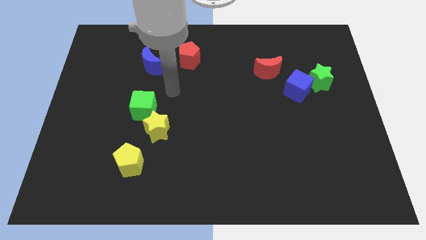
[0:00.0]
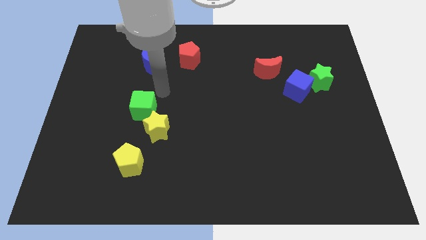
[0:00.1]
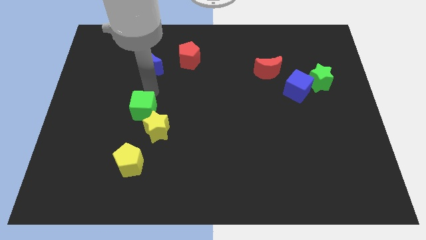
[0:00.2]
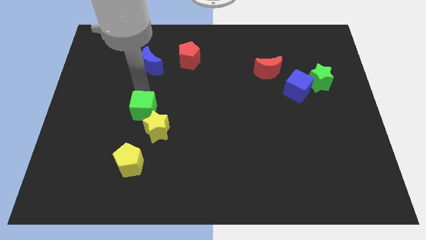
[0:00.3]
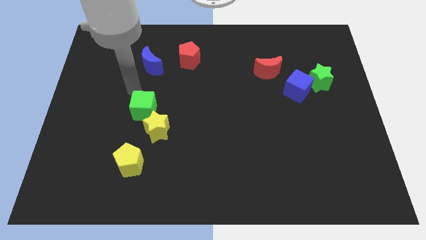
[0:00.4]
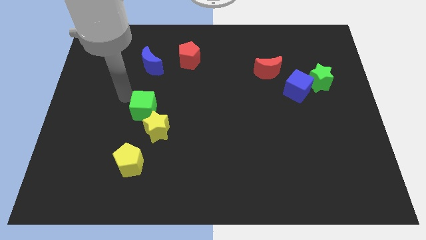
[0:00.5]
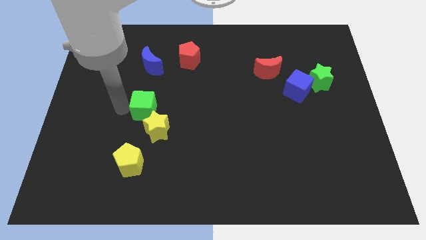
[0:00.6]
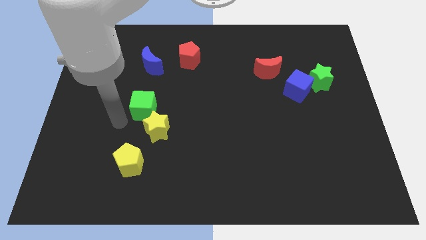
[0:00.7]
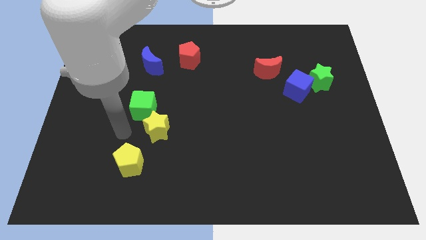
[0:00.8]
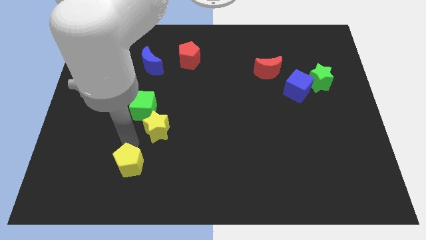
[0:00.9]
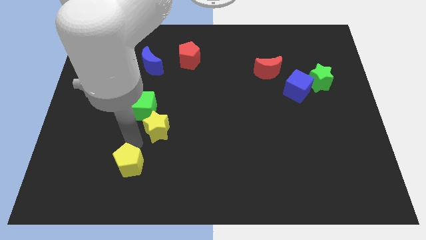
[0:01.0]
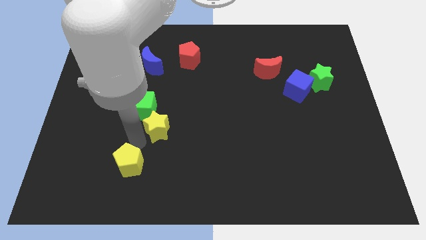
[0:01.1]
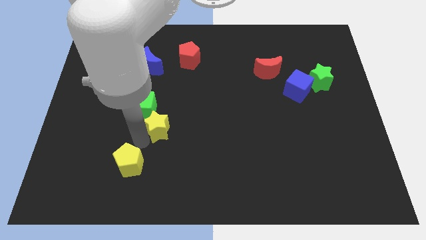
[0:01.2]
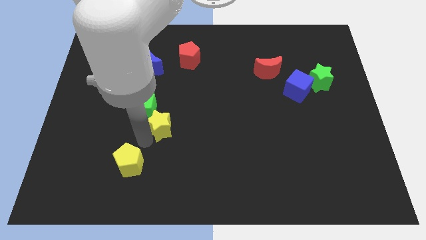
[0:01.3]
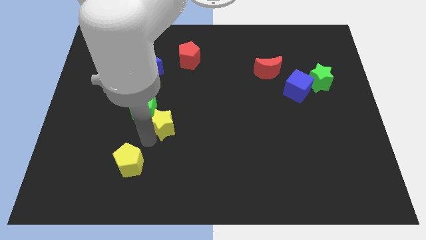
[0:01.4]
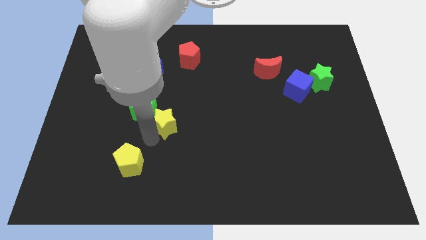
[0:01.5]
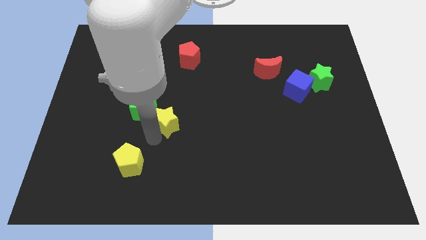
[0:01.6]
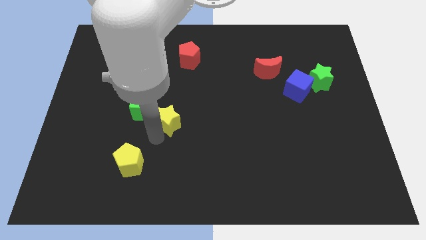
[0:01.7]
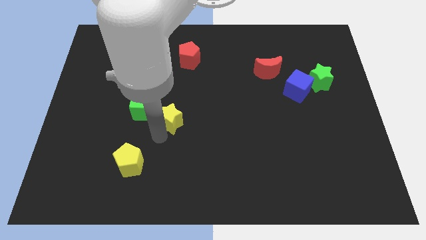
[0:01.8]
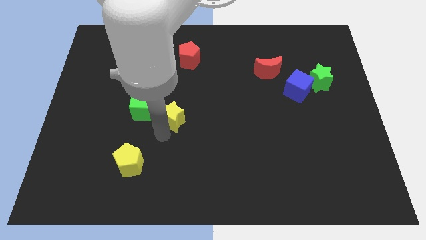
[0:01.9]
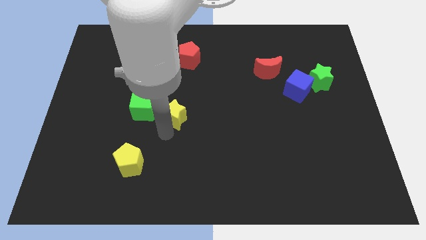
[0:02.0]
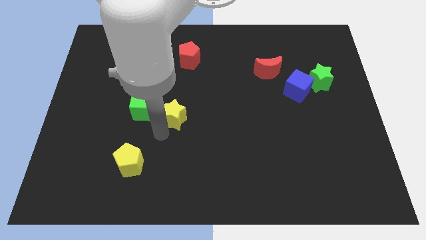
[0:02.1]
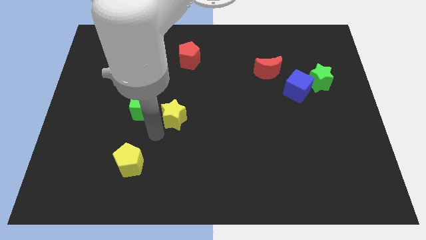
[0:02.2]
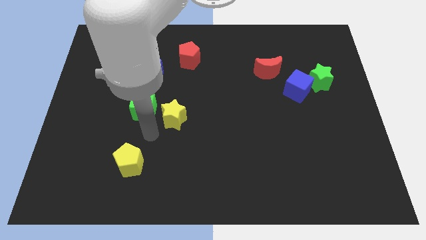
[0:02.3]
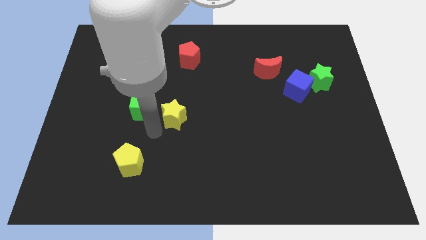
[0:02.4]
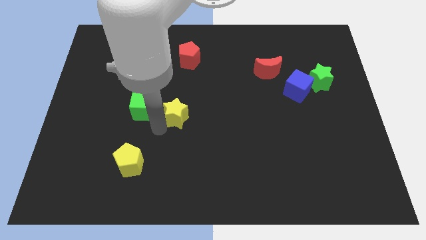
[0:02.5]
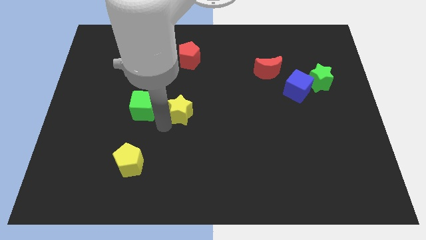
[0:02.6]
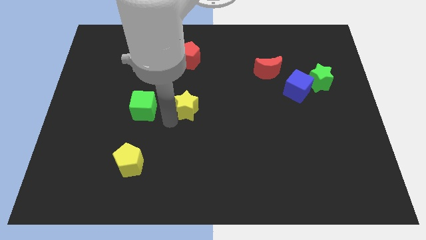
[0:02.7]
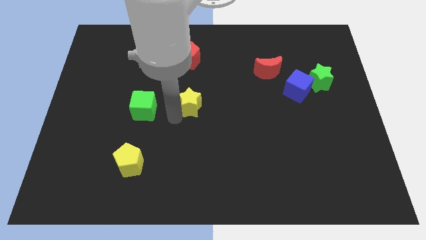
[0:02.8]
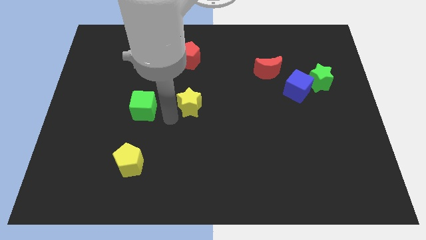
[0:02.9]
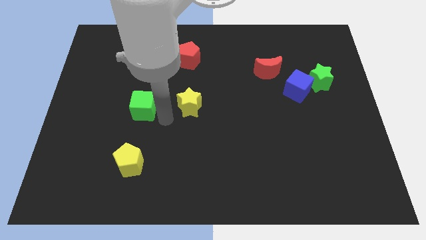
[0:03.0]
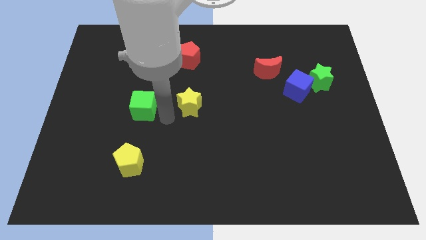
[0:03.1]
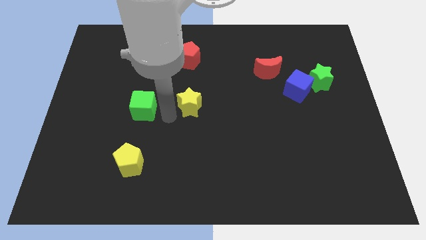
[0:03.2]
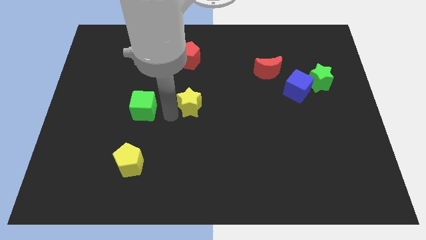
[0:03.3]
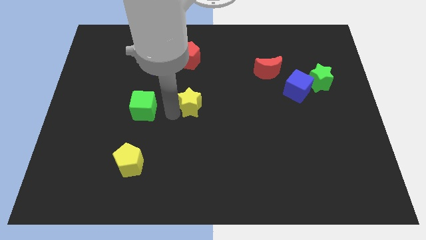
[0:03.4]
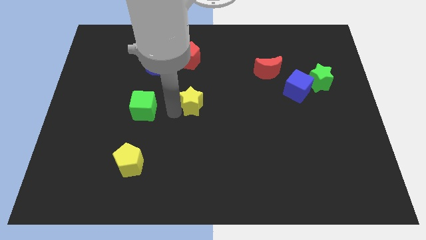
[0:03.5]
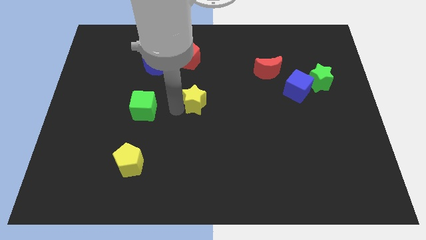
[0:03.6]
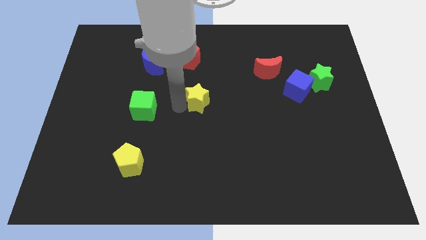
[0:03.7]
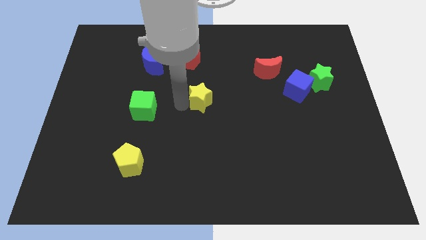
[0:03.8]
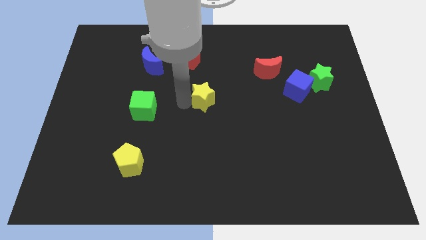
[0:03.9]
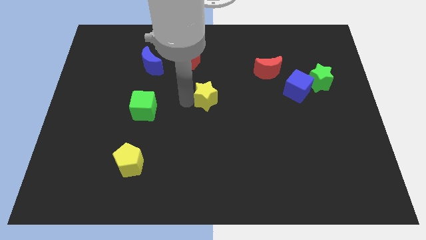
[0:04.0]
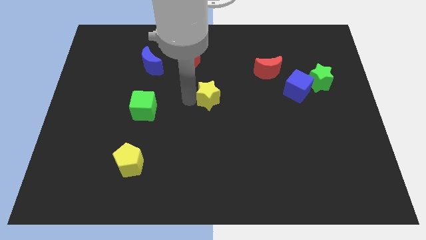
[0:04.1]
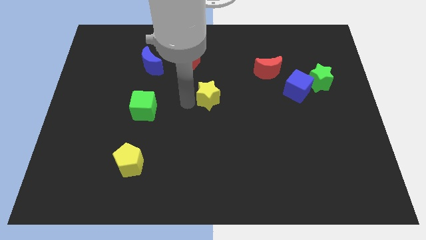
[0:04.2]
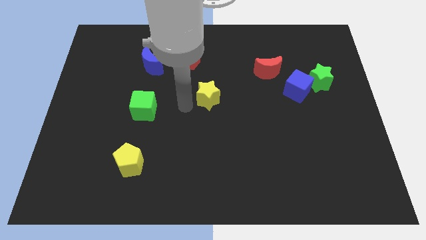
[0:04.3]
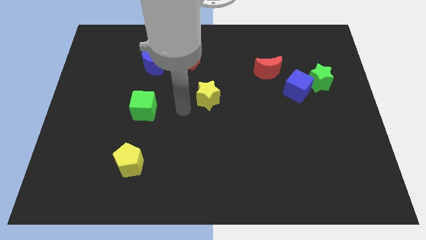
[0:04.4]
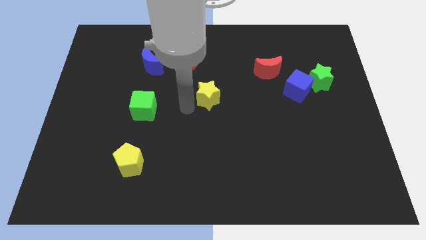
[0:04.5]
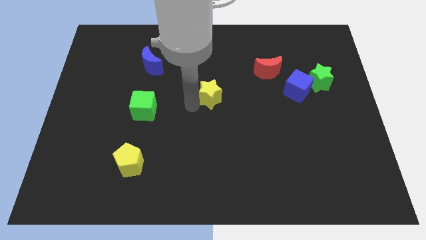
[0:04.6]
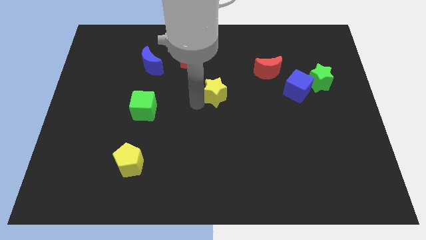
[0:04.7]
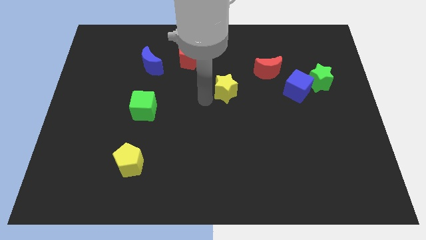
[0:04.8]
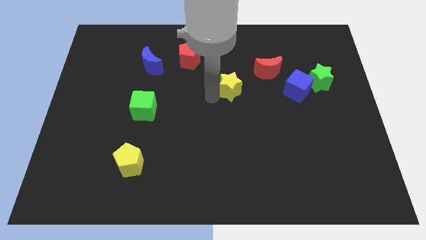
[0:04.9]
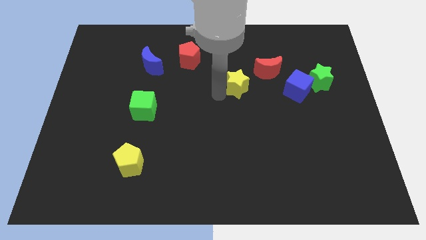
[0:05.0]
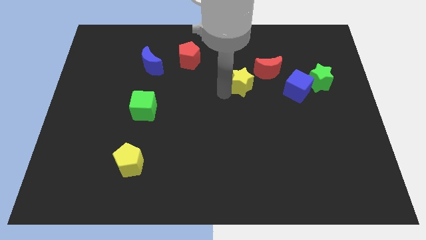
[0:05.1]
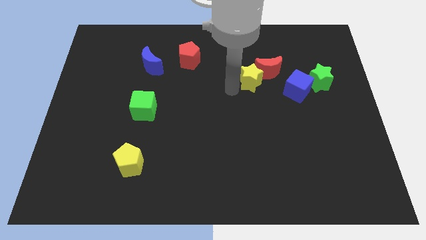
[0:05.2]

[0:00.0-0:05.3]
put the yellow star to the red moon

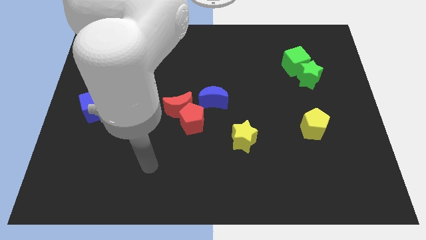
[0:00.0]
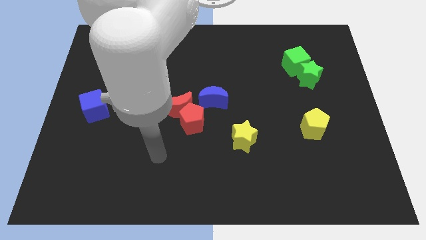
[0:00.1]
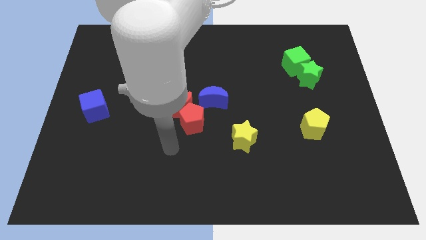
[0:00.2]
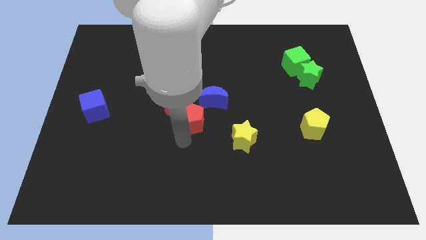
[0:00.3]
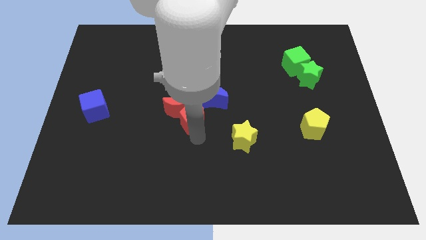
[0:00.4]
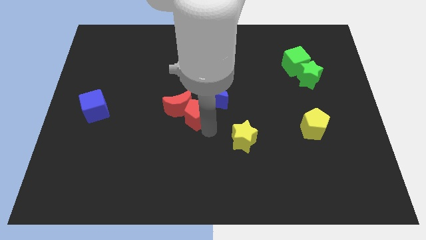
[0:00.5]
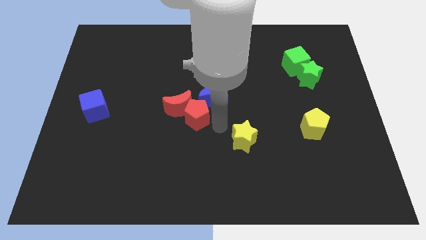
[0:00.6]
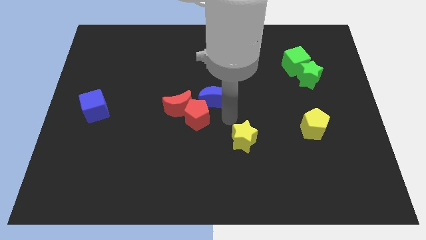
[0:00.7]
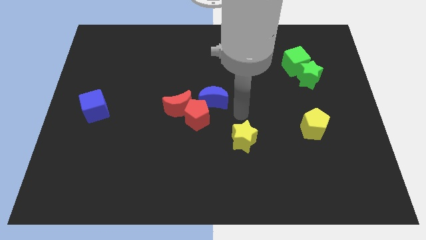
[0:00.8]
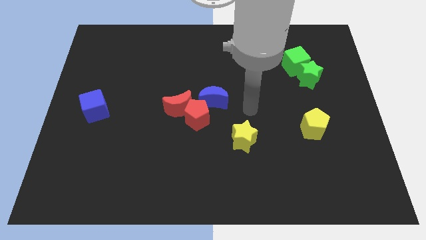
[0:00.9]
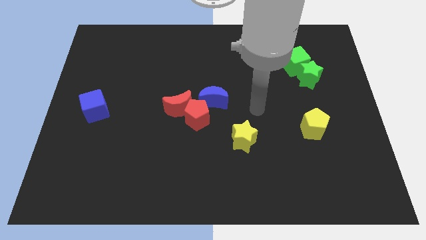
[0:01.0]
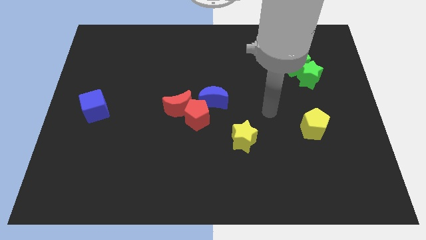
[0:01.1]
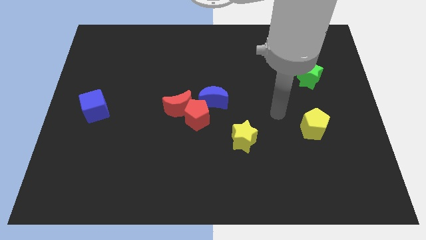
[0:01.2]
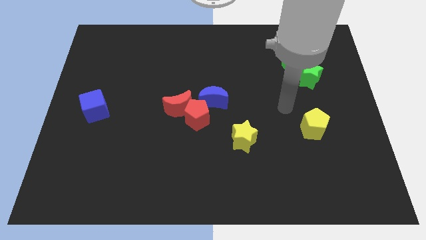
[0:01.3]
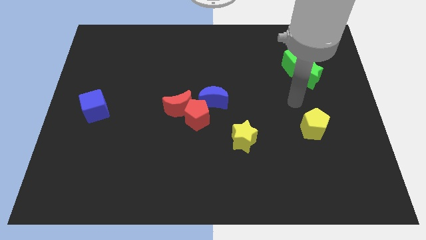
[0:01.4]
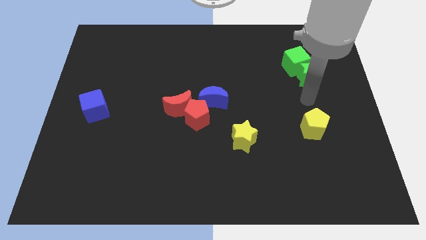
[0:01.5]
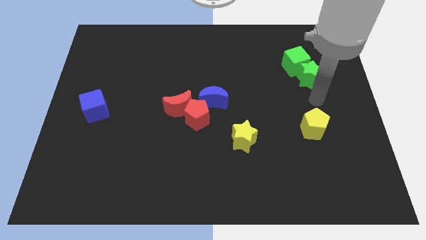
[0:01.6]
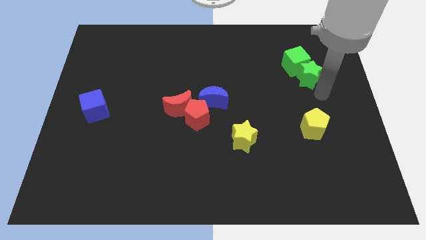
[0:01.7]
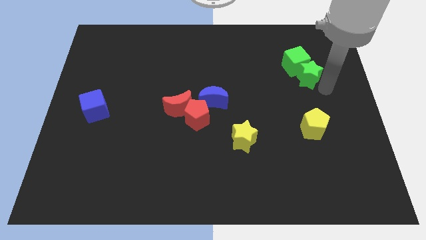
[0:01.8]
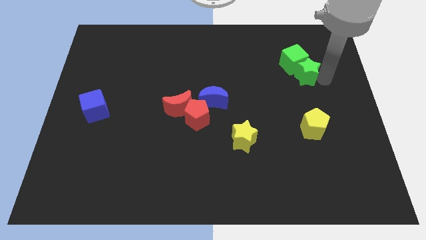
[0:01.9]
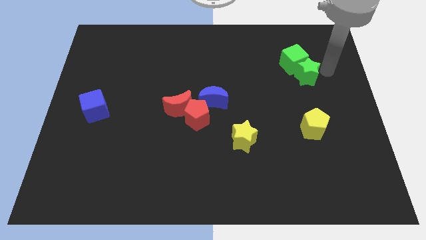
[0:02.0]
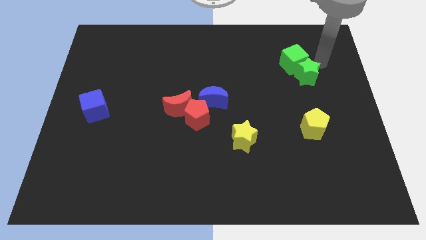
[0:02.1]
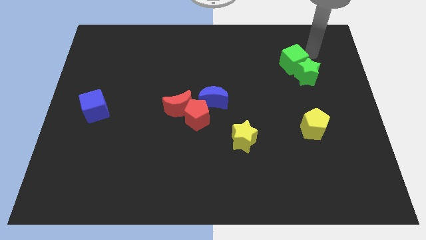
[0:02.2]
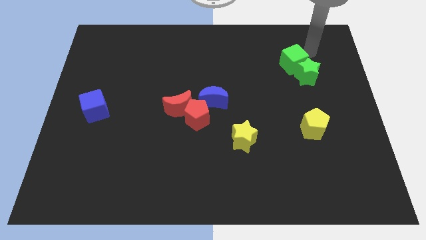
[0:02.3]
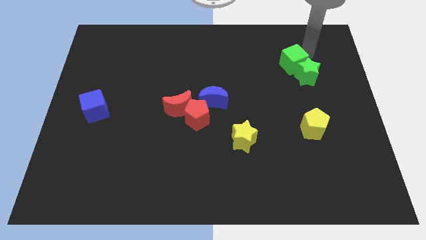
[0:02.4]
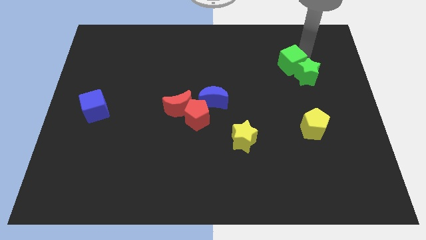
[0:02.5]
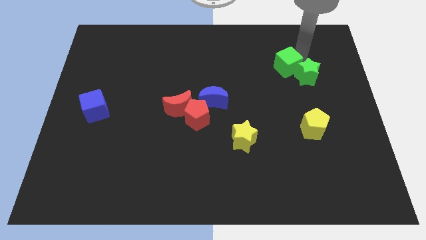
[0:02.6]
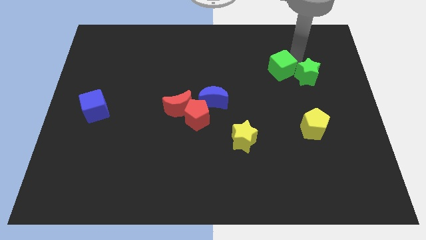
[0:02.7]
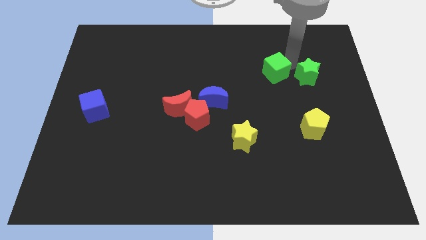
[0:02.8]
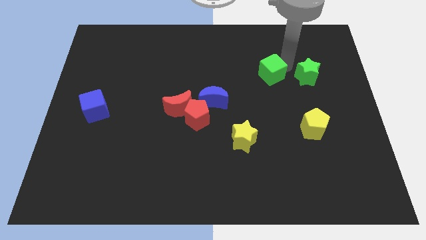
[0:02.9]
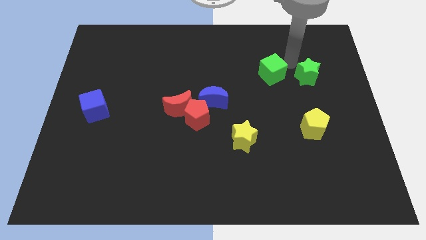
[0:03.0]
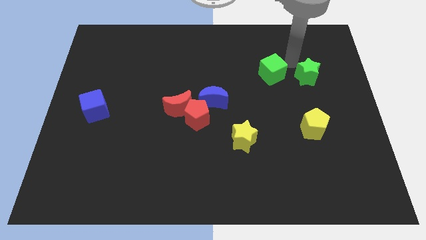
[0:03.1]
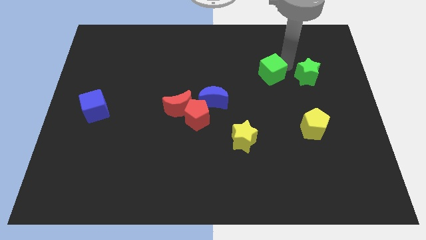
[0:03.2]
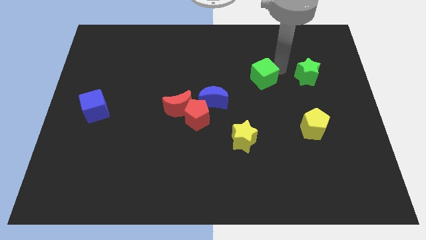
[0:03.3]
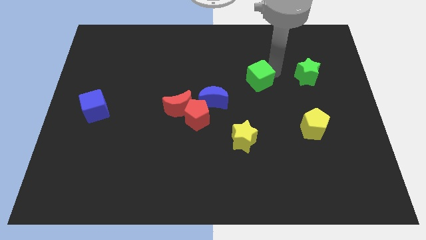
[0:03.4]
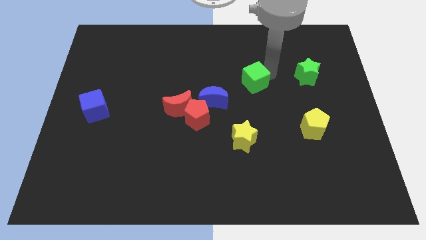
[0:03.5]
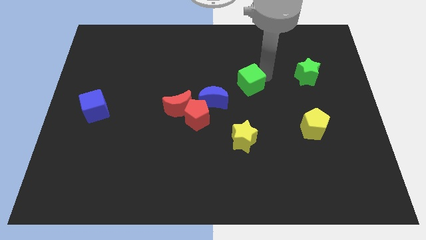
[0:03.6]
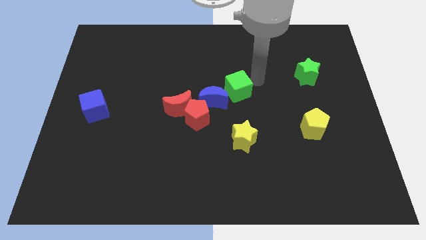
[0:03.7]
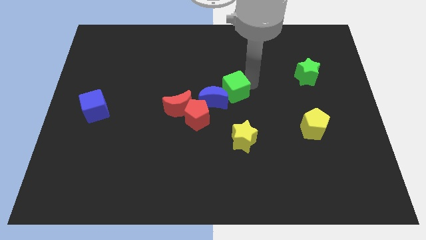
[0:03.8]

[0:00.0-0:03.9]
slide the green cube towards the blue moon
